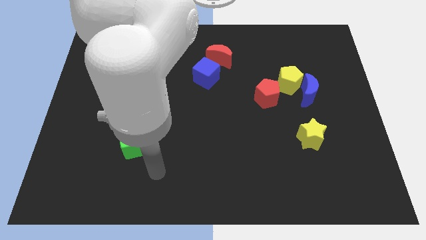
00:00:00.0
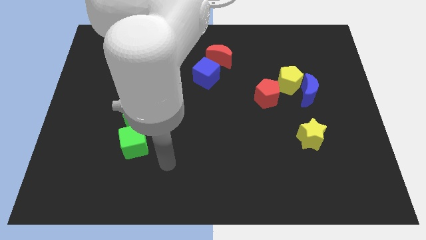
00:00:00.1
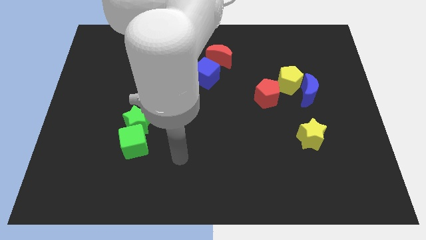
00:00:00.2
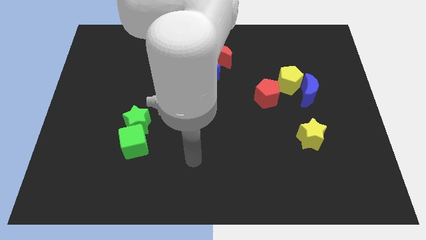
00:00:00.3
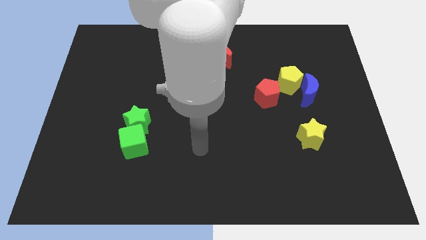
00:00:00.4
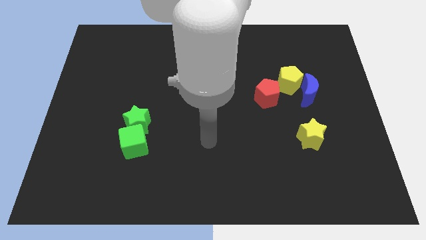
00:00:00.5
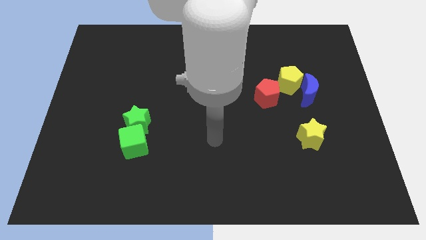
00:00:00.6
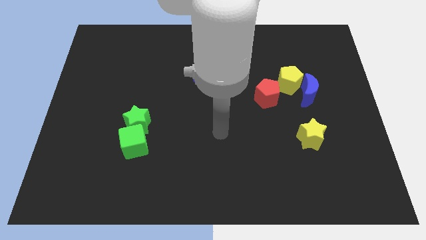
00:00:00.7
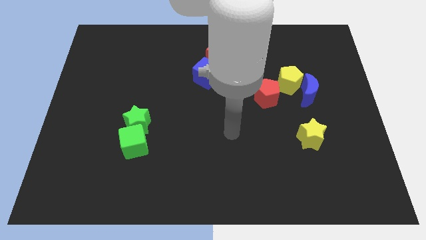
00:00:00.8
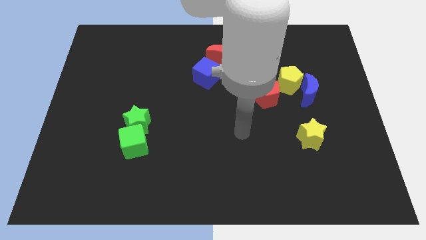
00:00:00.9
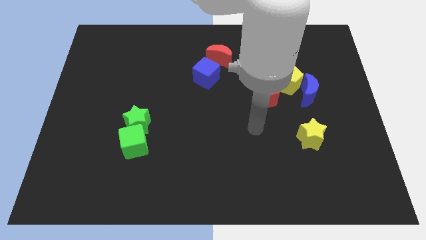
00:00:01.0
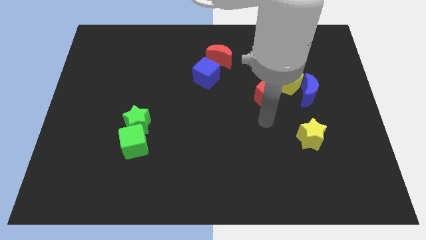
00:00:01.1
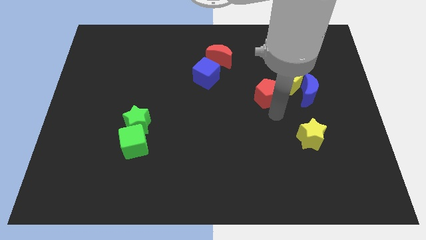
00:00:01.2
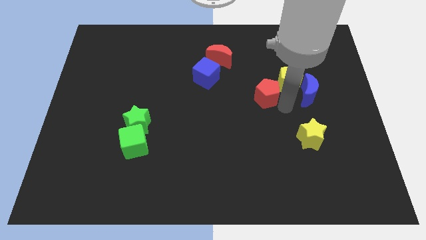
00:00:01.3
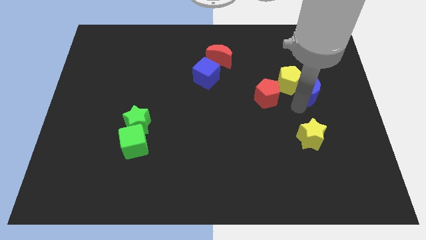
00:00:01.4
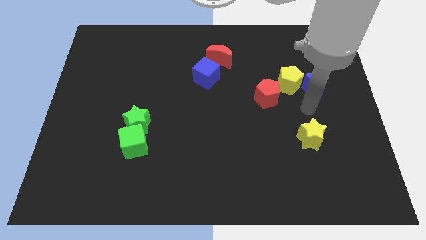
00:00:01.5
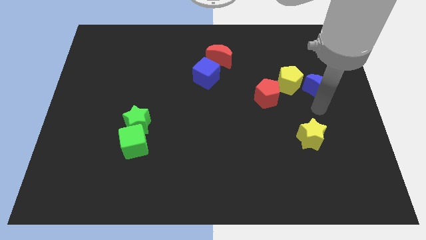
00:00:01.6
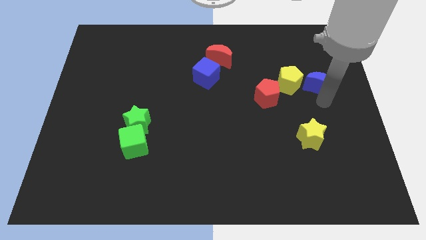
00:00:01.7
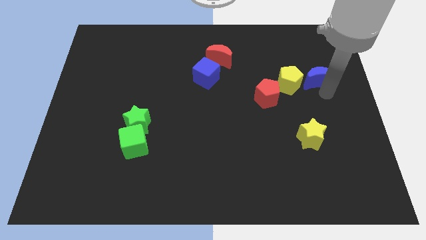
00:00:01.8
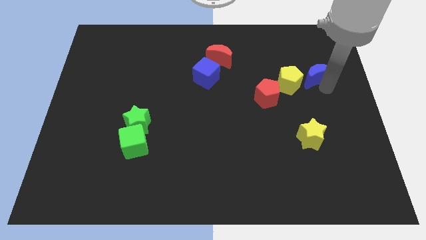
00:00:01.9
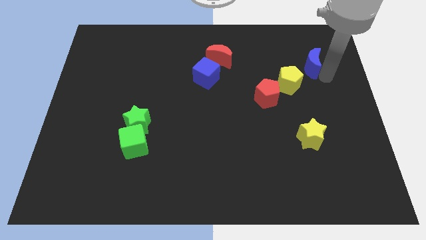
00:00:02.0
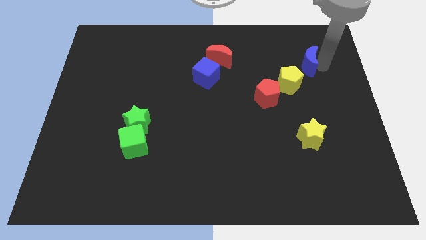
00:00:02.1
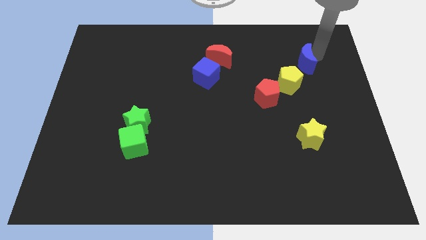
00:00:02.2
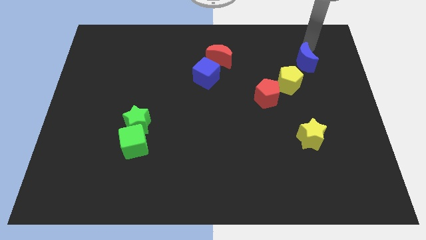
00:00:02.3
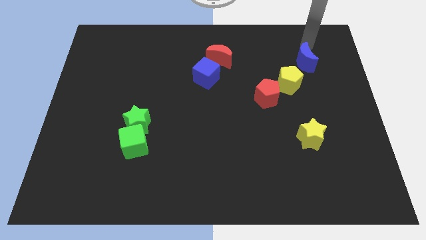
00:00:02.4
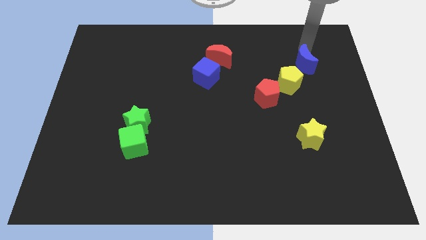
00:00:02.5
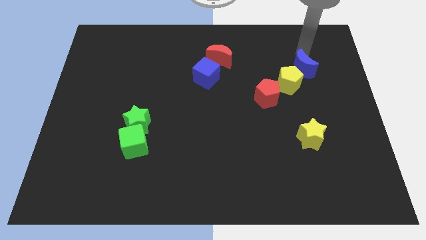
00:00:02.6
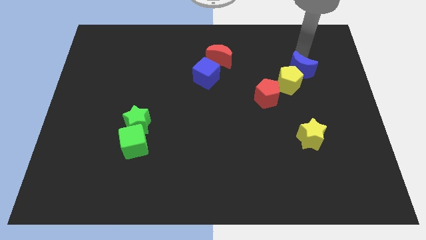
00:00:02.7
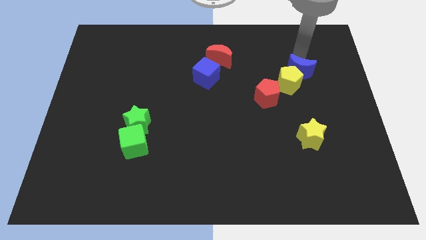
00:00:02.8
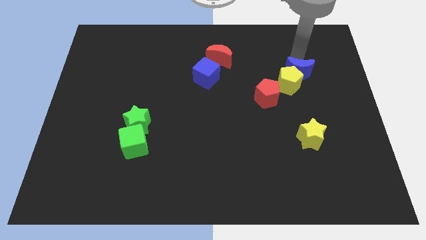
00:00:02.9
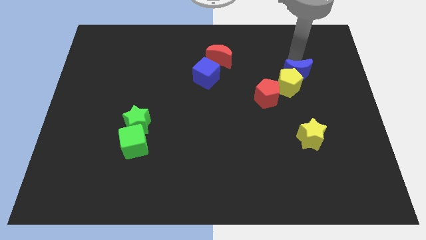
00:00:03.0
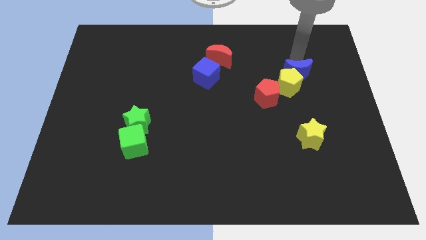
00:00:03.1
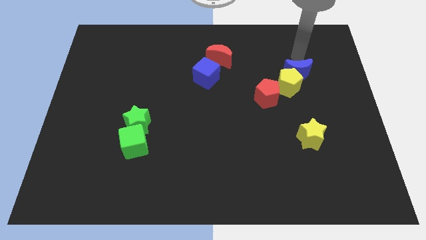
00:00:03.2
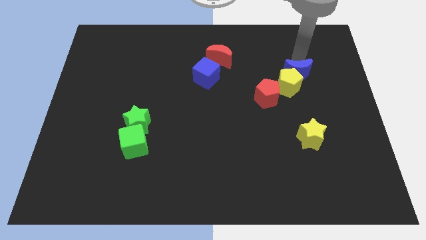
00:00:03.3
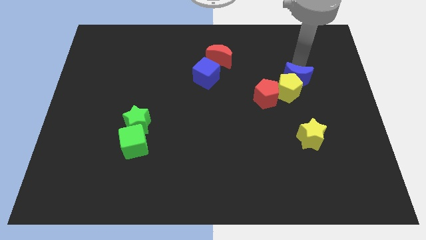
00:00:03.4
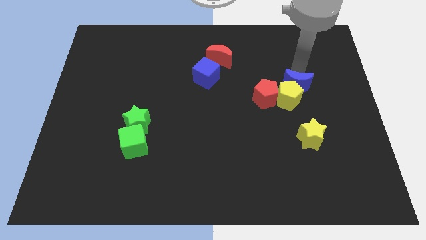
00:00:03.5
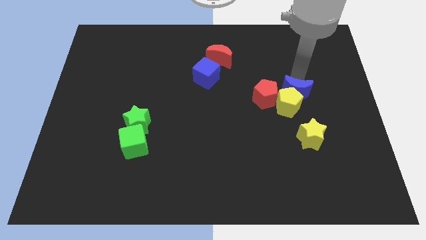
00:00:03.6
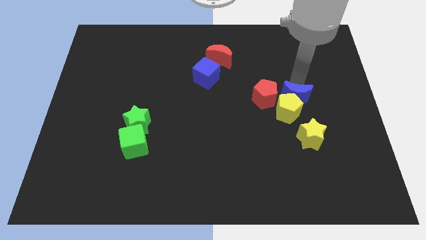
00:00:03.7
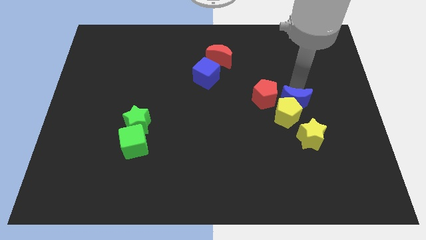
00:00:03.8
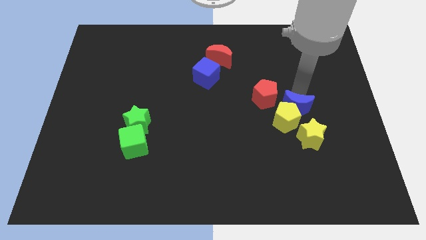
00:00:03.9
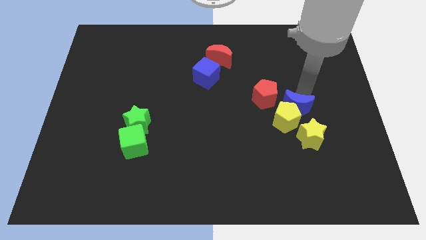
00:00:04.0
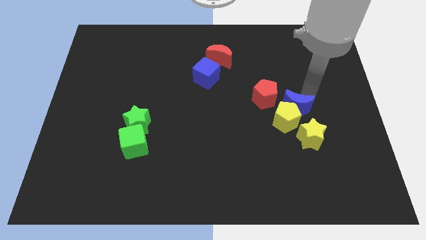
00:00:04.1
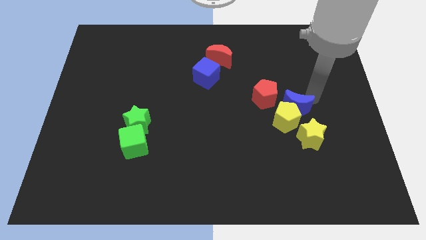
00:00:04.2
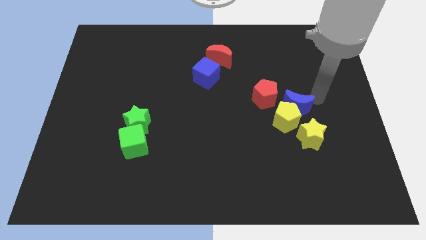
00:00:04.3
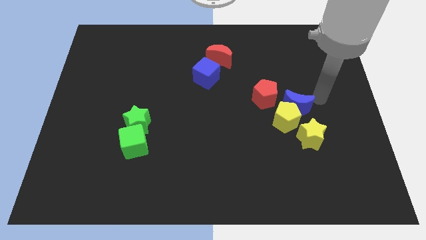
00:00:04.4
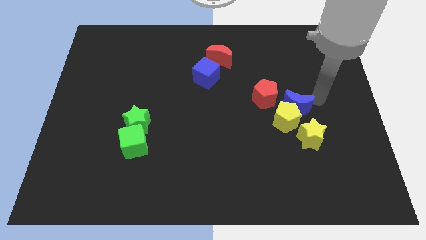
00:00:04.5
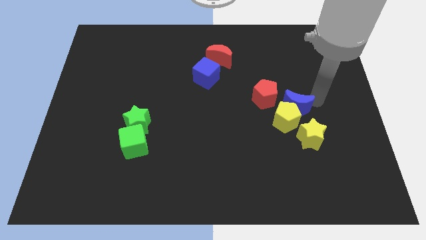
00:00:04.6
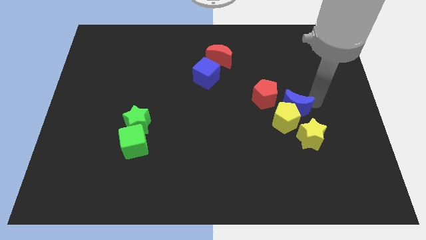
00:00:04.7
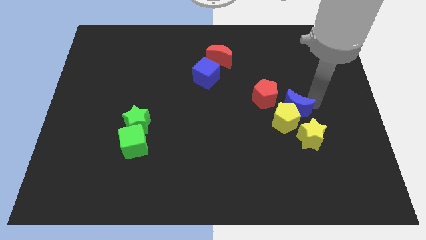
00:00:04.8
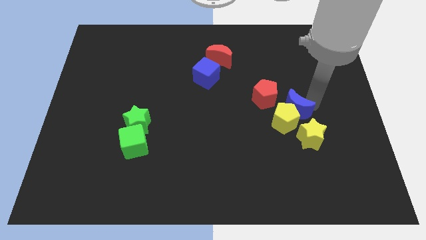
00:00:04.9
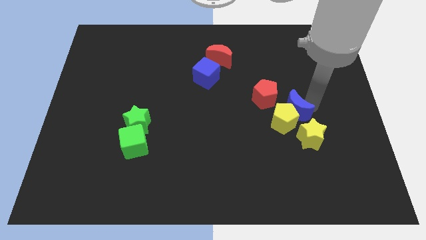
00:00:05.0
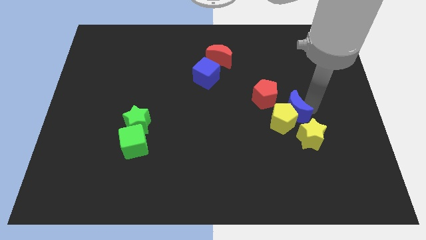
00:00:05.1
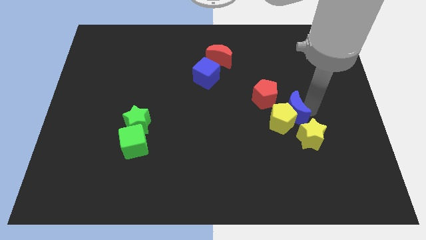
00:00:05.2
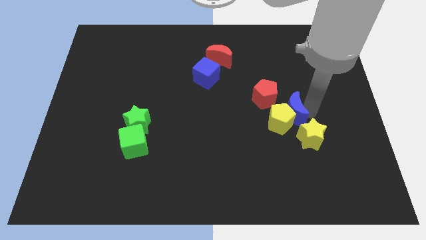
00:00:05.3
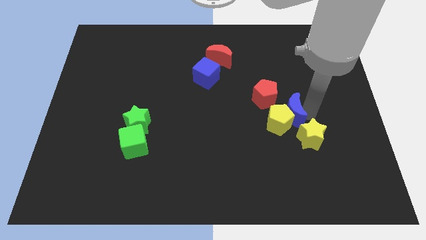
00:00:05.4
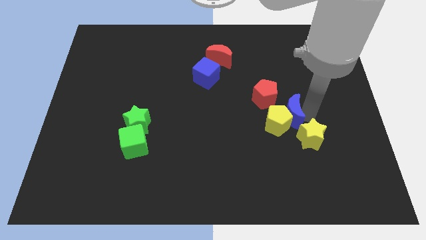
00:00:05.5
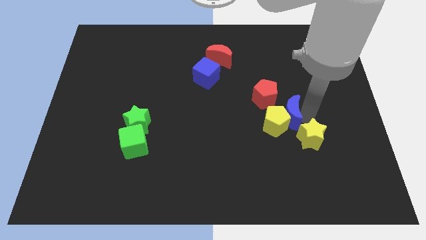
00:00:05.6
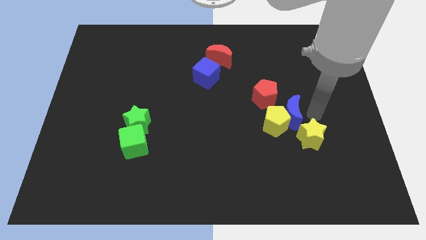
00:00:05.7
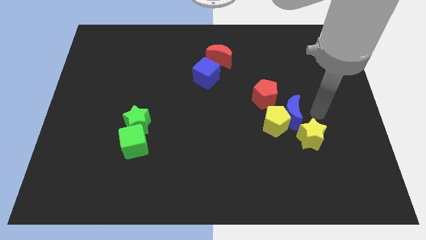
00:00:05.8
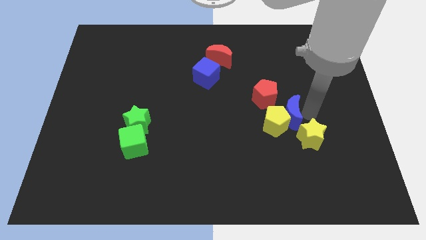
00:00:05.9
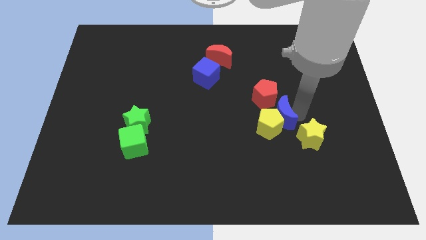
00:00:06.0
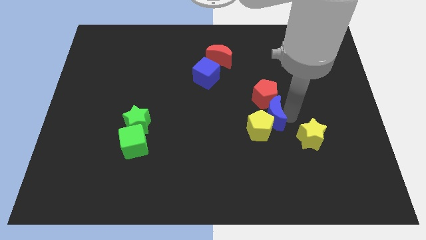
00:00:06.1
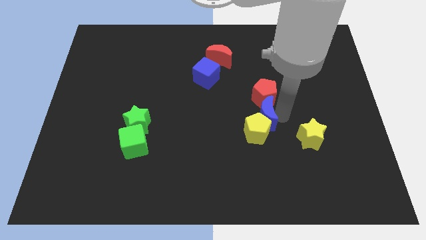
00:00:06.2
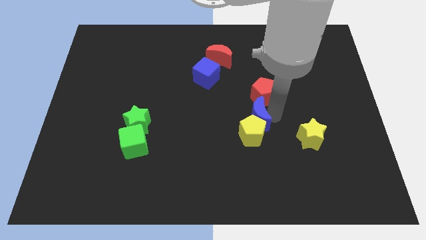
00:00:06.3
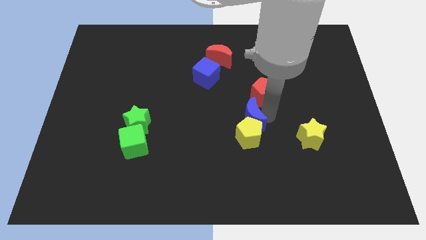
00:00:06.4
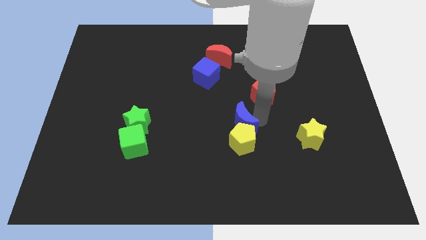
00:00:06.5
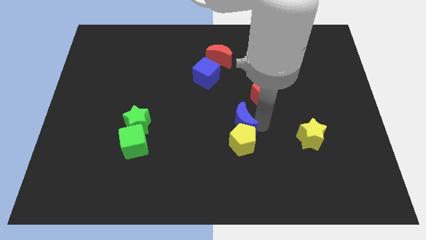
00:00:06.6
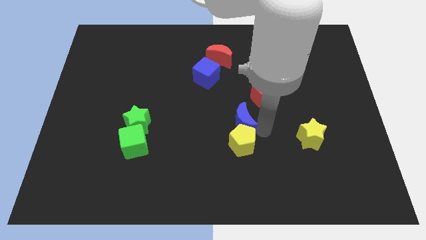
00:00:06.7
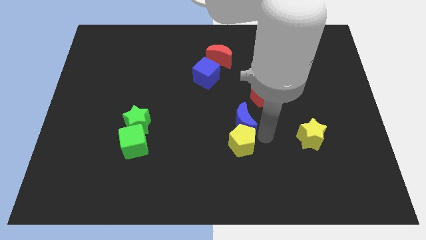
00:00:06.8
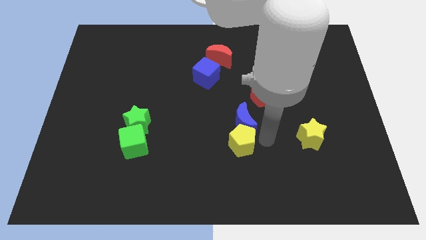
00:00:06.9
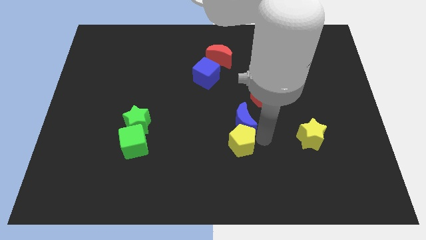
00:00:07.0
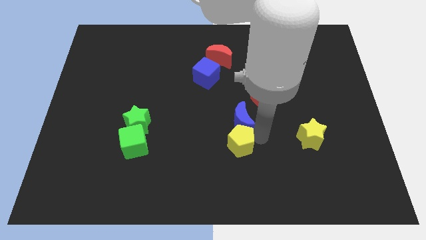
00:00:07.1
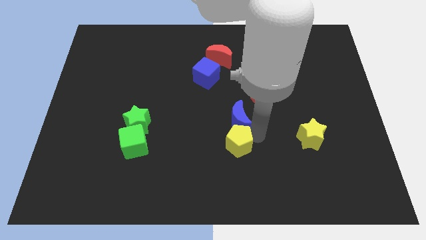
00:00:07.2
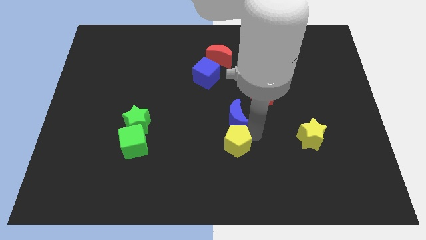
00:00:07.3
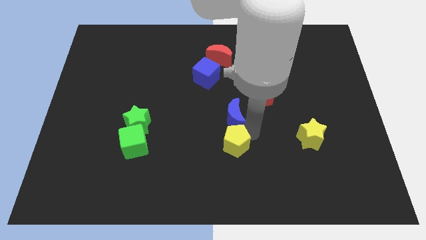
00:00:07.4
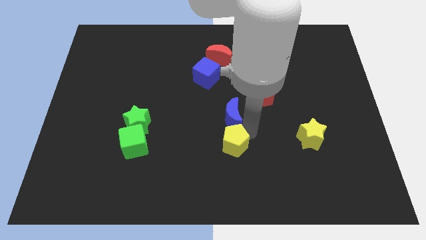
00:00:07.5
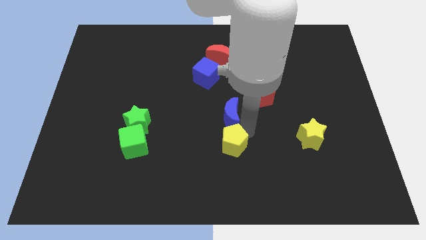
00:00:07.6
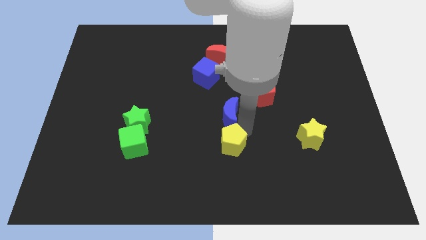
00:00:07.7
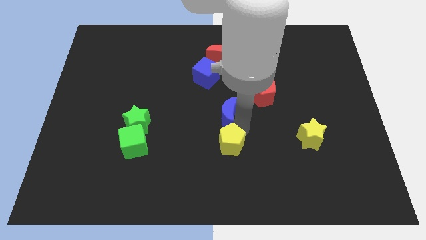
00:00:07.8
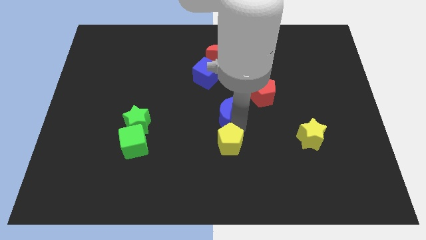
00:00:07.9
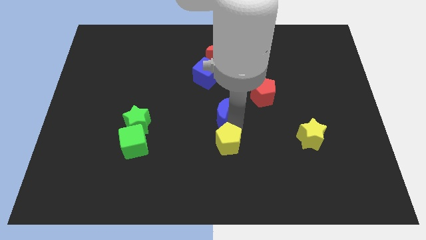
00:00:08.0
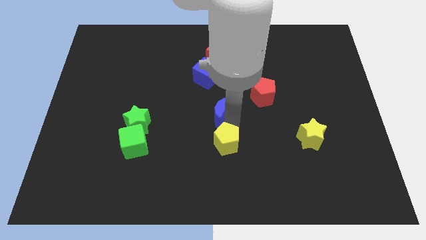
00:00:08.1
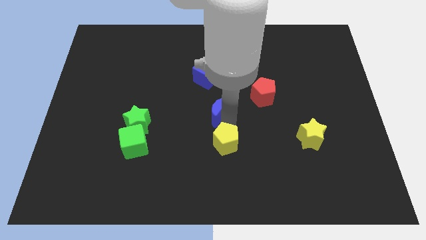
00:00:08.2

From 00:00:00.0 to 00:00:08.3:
slide the blue moon to the left
